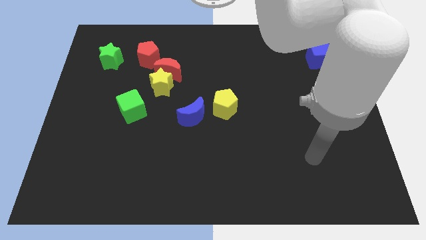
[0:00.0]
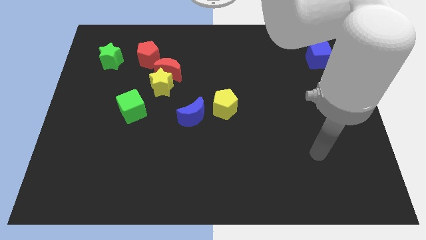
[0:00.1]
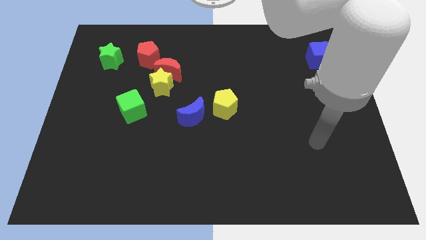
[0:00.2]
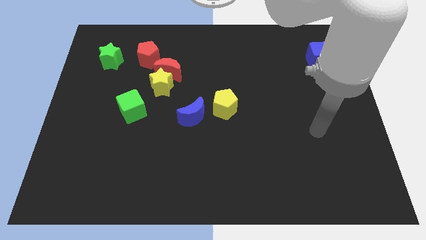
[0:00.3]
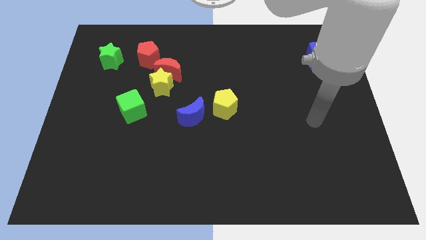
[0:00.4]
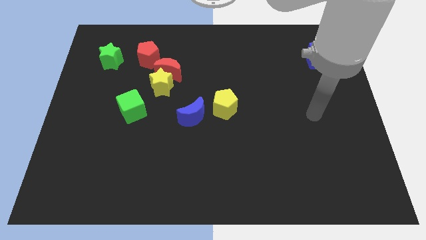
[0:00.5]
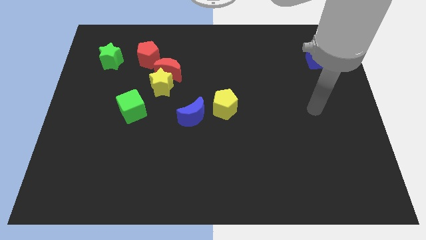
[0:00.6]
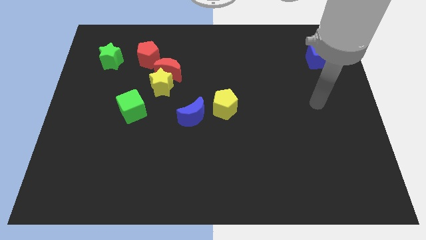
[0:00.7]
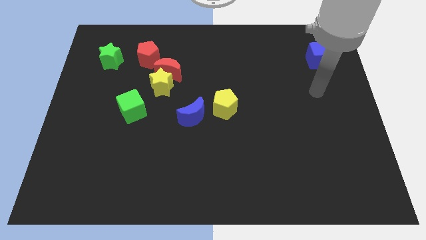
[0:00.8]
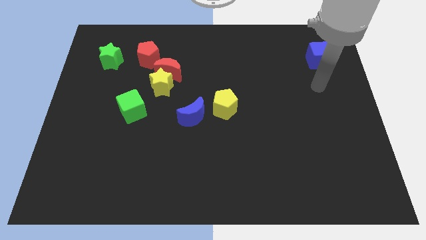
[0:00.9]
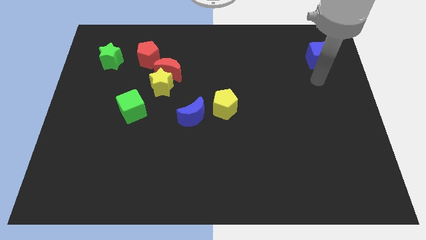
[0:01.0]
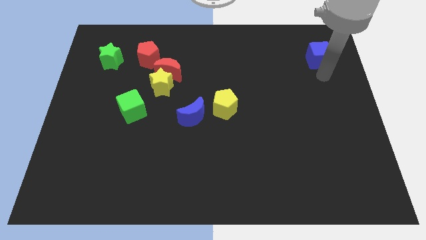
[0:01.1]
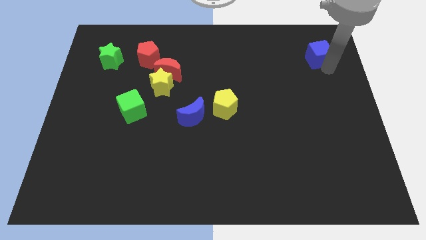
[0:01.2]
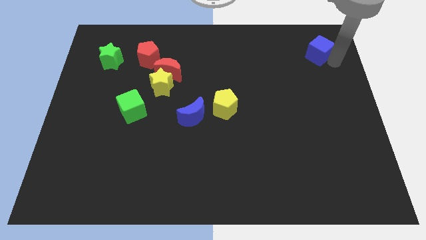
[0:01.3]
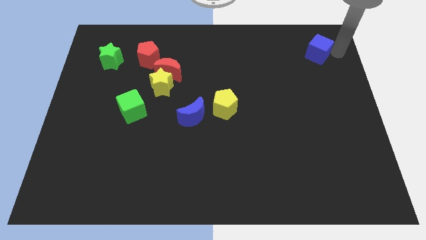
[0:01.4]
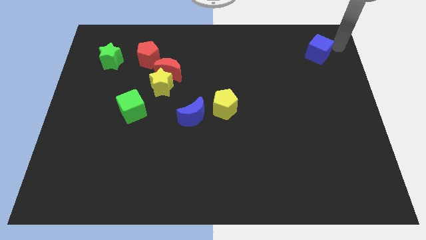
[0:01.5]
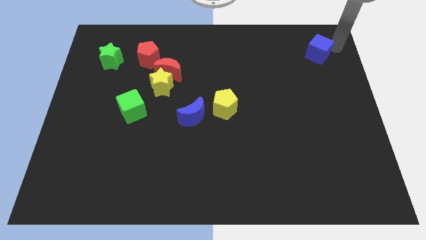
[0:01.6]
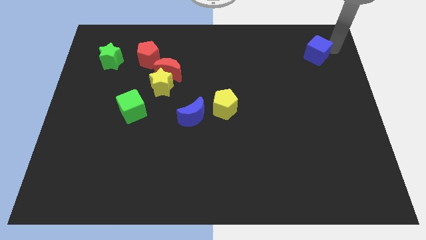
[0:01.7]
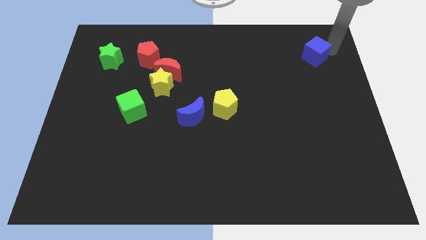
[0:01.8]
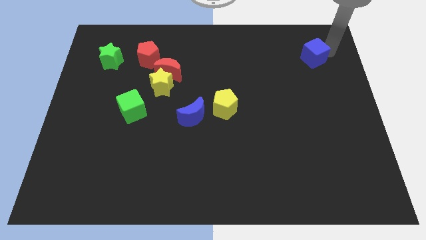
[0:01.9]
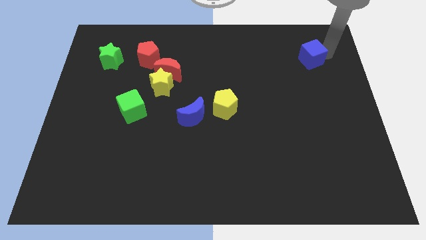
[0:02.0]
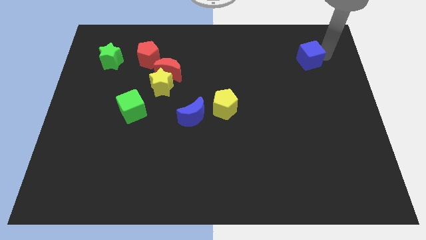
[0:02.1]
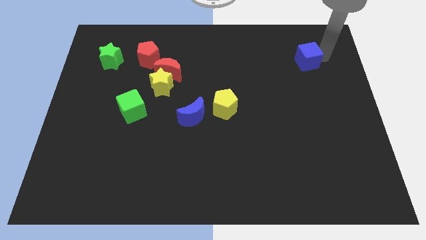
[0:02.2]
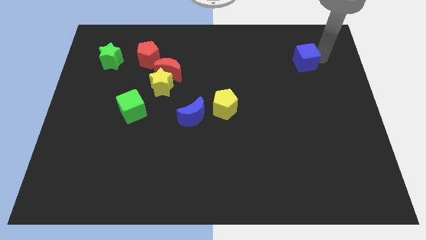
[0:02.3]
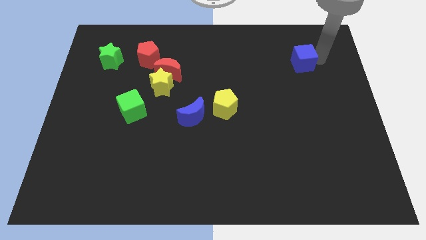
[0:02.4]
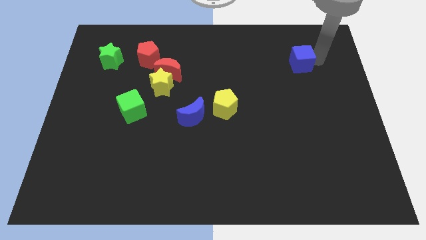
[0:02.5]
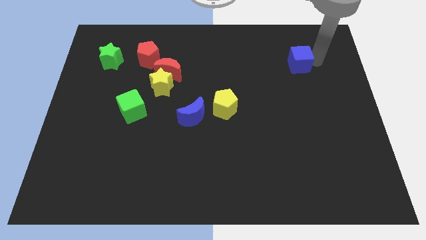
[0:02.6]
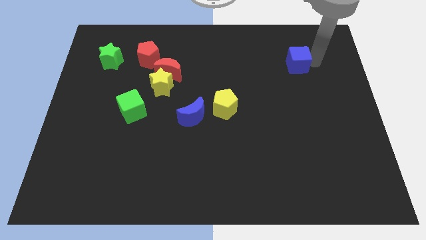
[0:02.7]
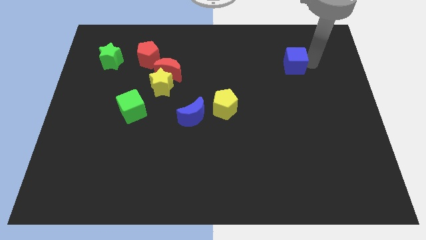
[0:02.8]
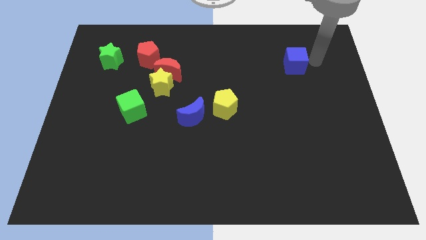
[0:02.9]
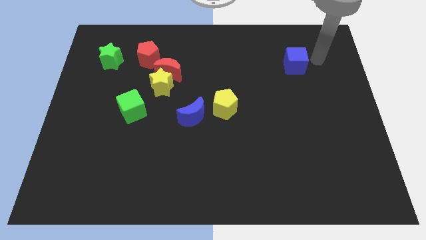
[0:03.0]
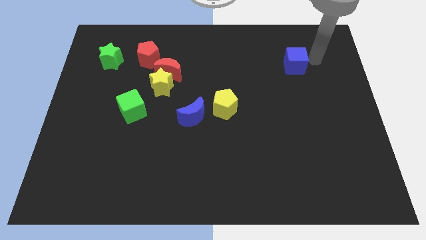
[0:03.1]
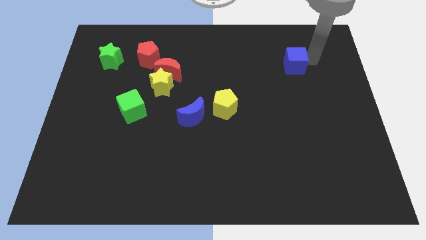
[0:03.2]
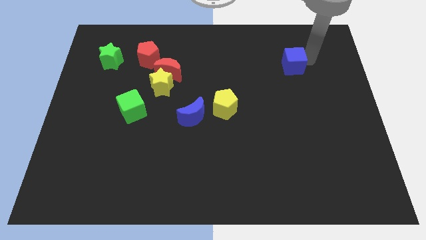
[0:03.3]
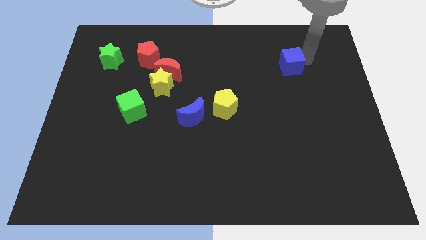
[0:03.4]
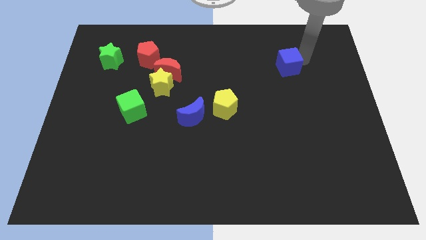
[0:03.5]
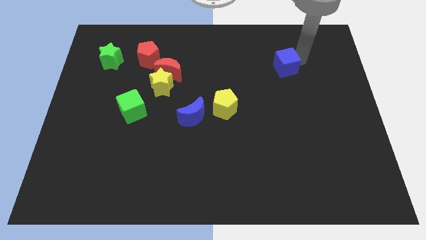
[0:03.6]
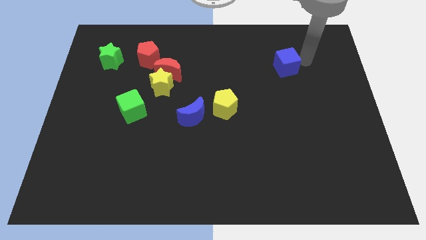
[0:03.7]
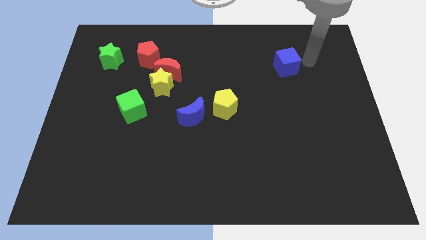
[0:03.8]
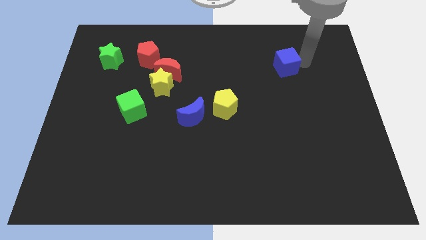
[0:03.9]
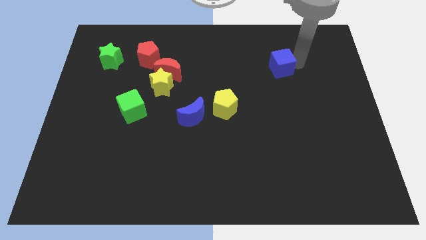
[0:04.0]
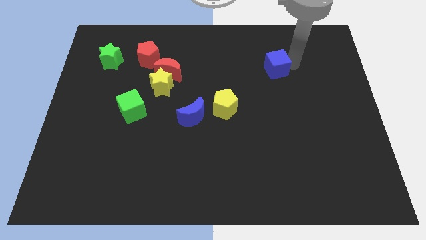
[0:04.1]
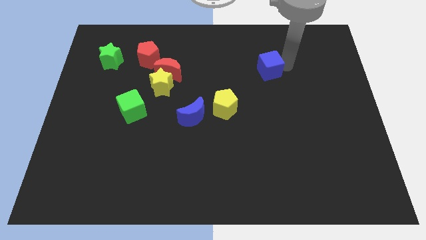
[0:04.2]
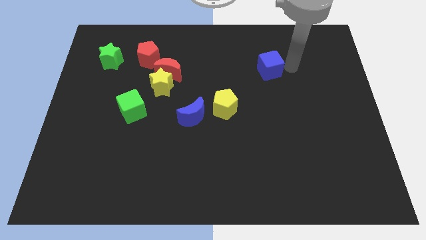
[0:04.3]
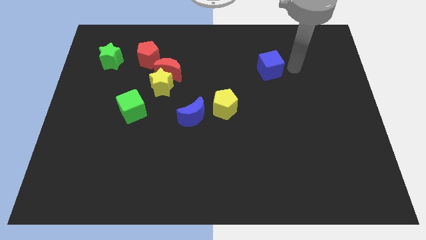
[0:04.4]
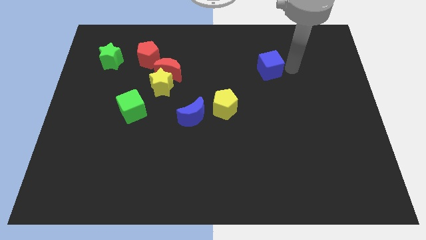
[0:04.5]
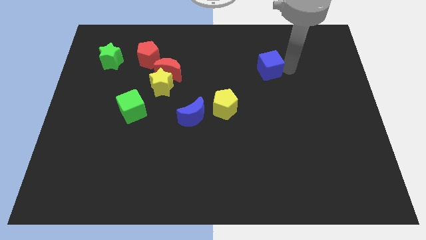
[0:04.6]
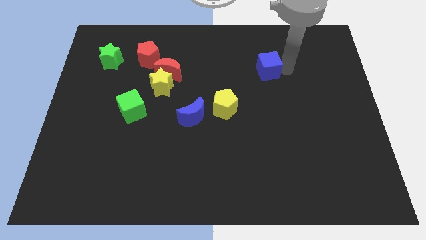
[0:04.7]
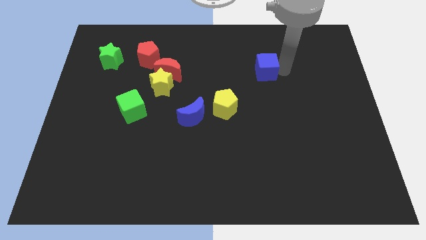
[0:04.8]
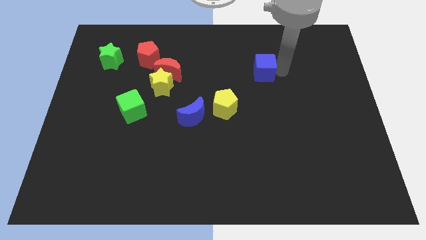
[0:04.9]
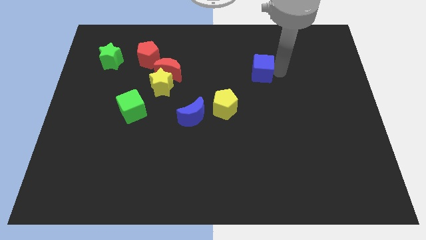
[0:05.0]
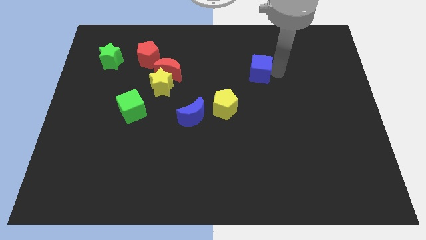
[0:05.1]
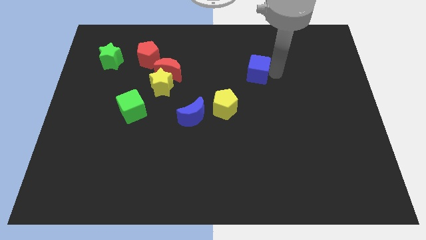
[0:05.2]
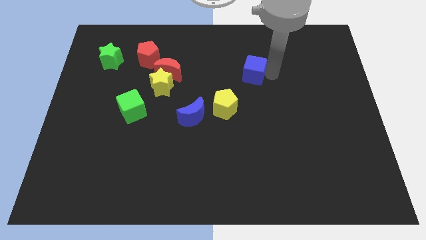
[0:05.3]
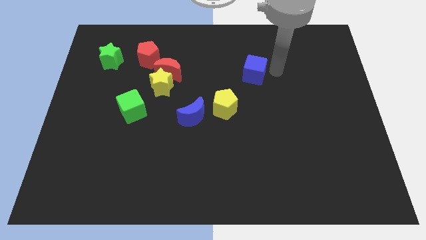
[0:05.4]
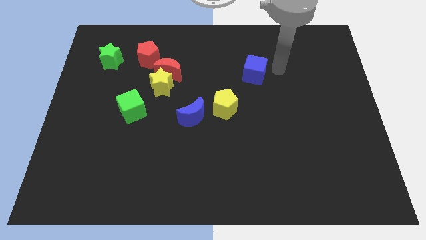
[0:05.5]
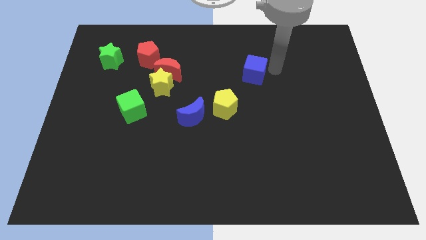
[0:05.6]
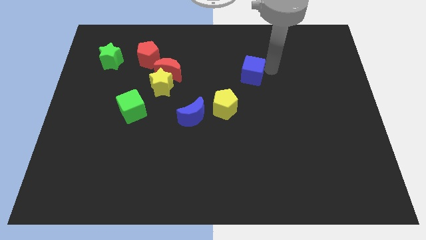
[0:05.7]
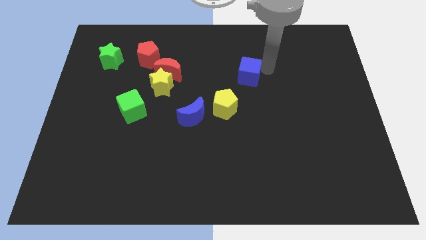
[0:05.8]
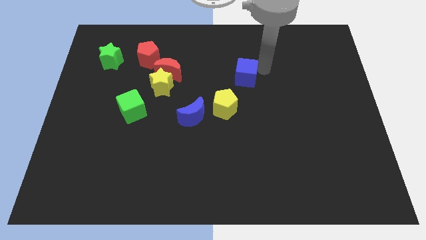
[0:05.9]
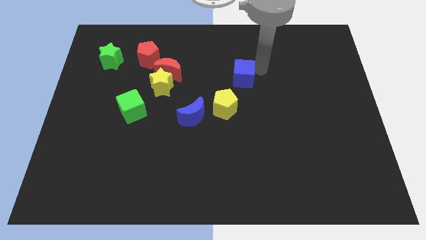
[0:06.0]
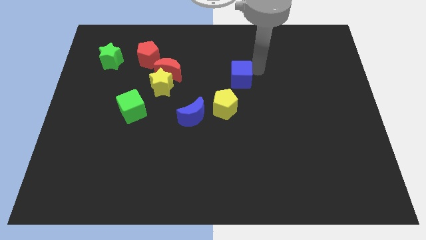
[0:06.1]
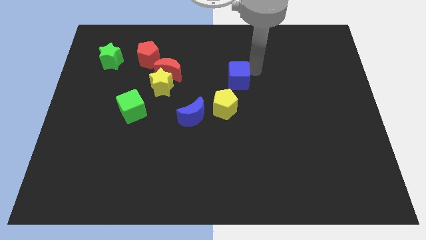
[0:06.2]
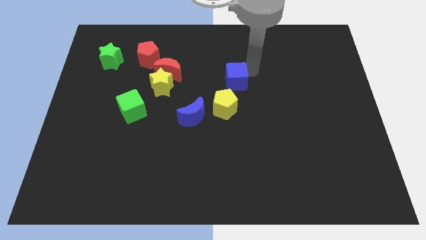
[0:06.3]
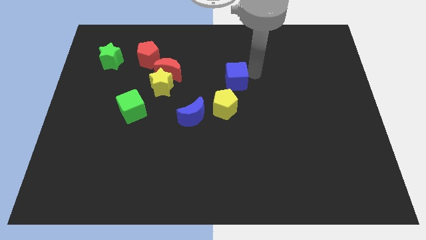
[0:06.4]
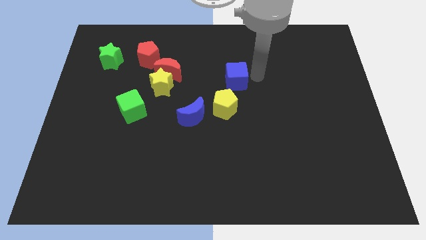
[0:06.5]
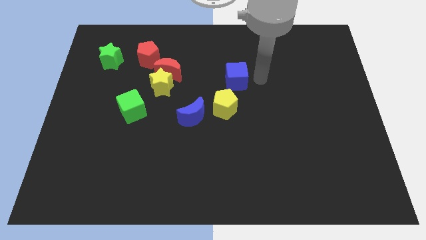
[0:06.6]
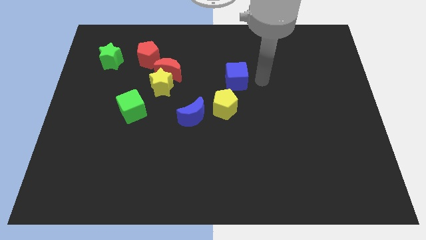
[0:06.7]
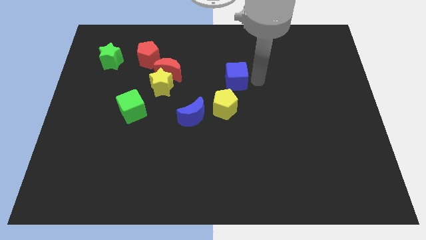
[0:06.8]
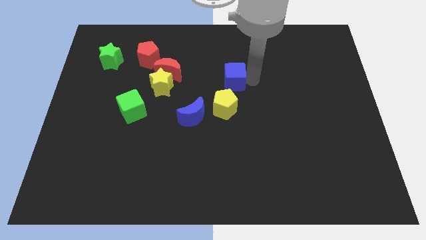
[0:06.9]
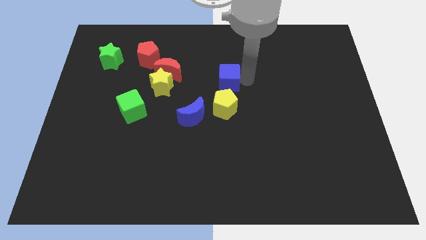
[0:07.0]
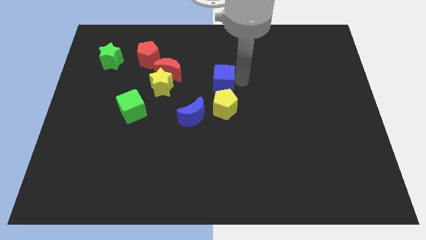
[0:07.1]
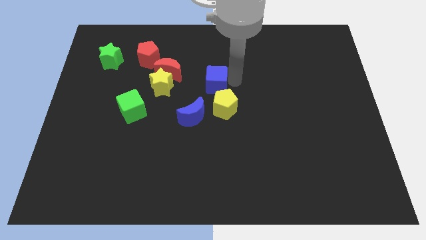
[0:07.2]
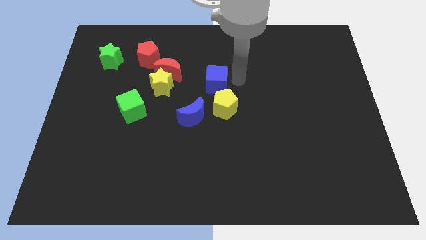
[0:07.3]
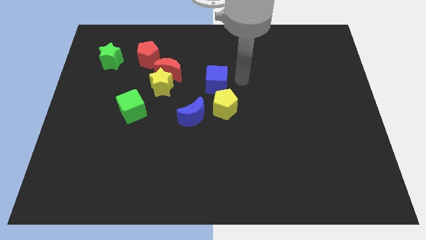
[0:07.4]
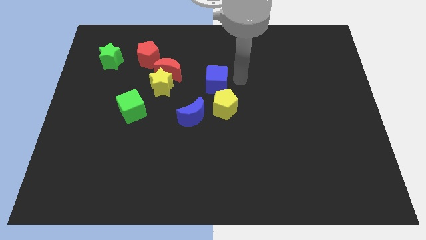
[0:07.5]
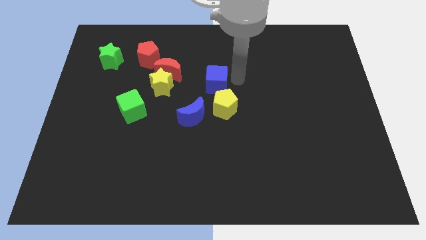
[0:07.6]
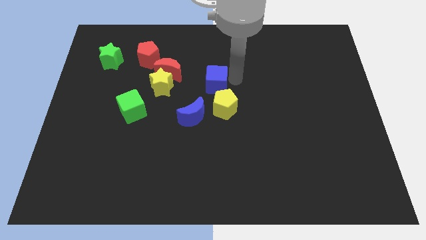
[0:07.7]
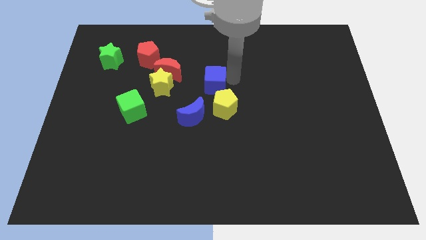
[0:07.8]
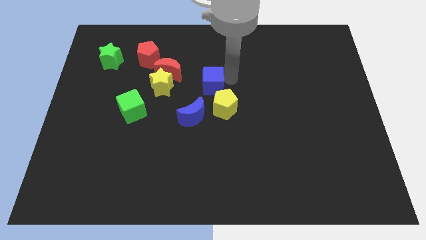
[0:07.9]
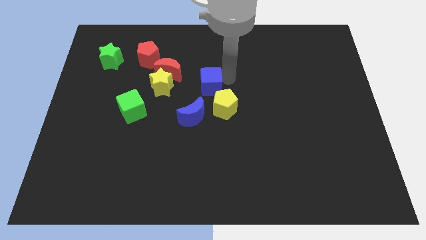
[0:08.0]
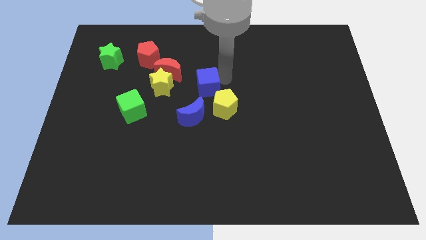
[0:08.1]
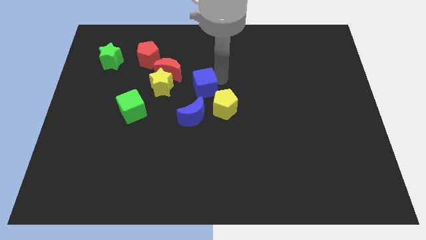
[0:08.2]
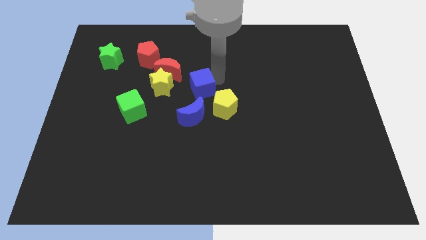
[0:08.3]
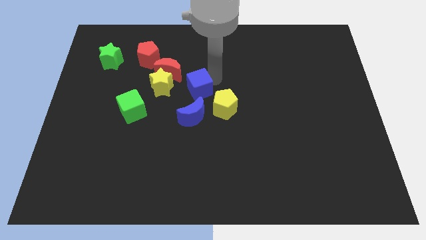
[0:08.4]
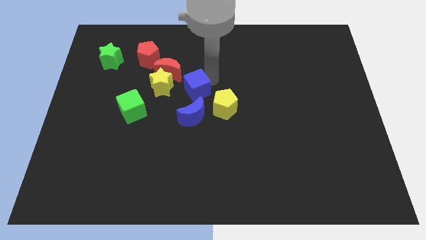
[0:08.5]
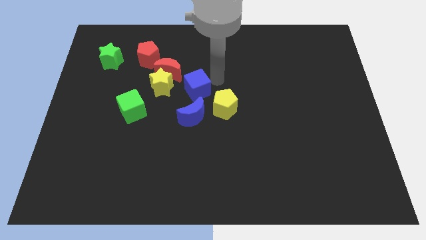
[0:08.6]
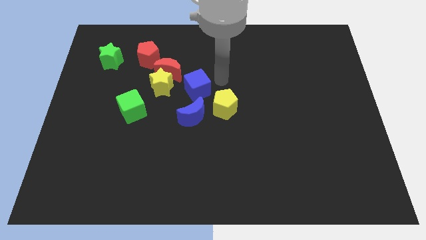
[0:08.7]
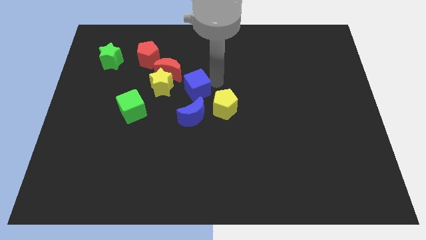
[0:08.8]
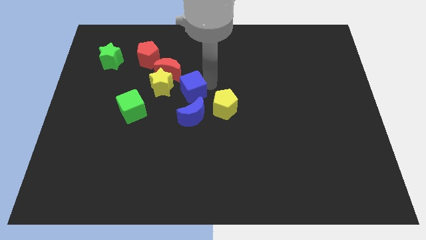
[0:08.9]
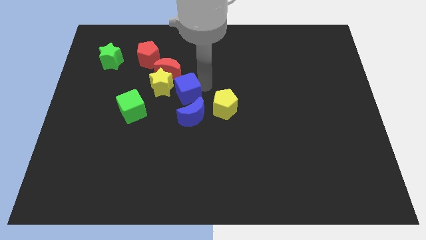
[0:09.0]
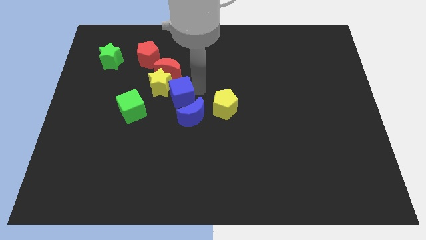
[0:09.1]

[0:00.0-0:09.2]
move the blue cube to the yellow star
